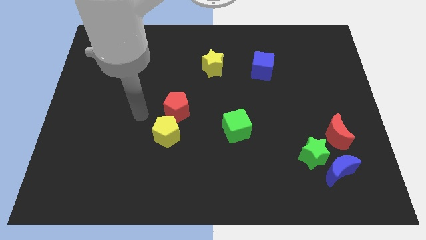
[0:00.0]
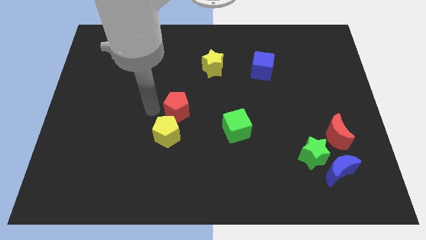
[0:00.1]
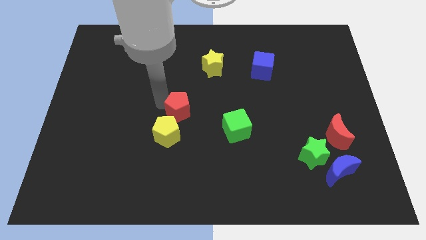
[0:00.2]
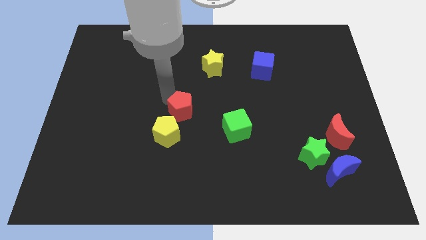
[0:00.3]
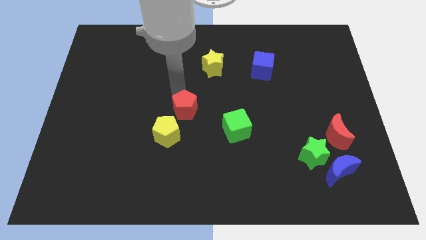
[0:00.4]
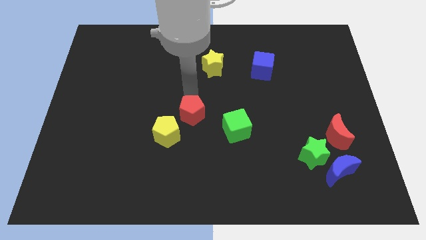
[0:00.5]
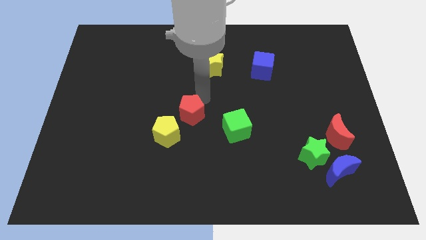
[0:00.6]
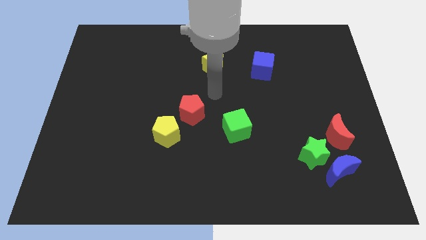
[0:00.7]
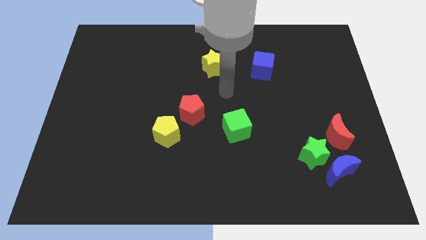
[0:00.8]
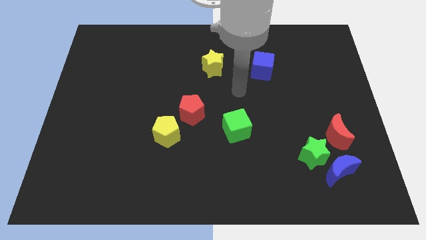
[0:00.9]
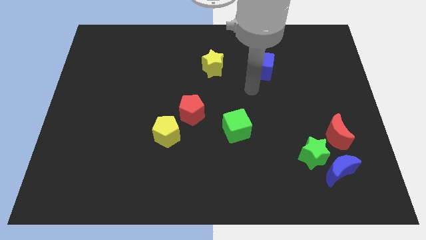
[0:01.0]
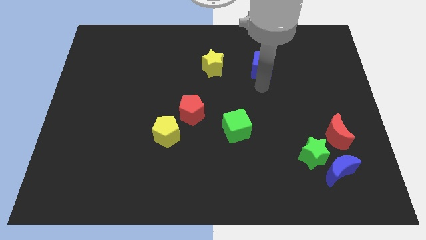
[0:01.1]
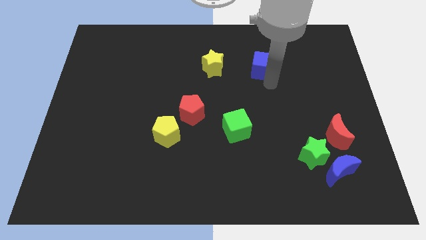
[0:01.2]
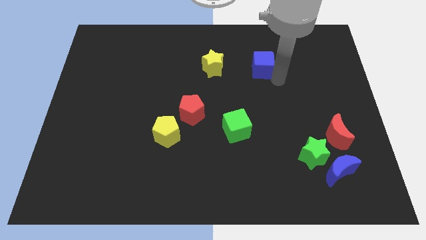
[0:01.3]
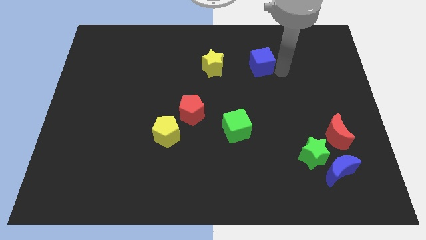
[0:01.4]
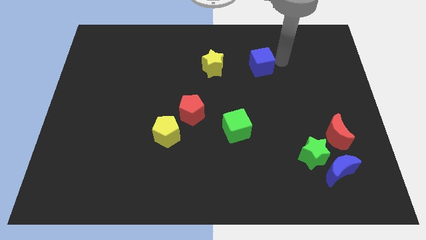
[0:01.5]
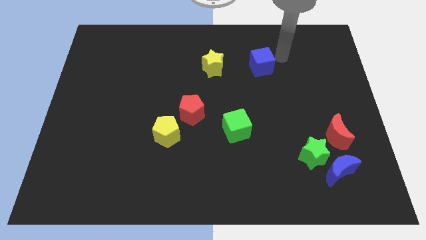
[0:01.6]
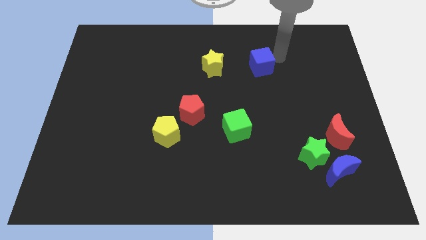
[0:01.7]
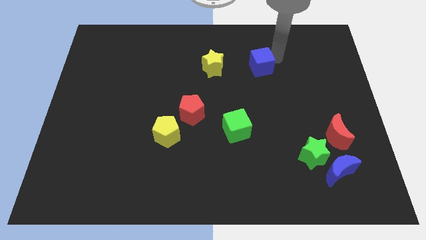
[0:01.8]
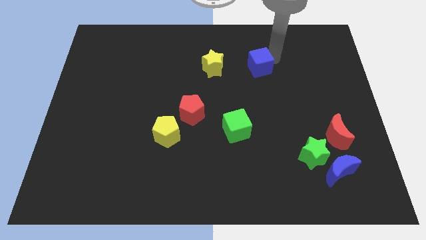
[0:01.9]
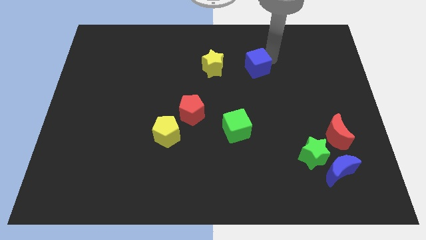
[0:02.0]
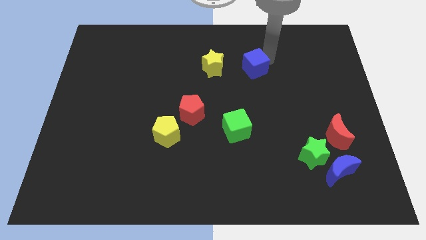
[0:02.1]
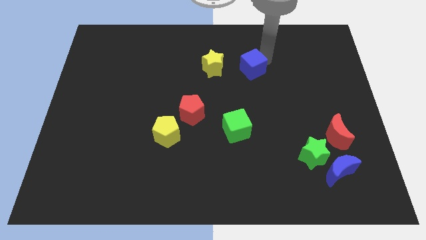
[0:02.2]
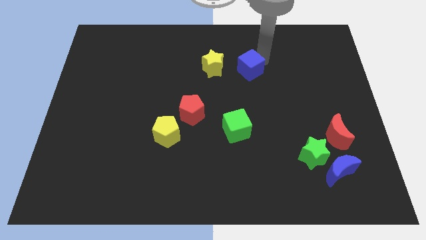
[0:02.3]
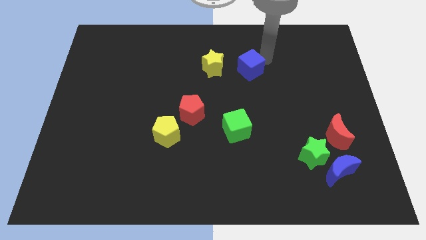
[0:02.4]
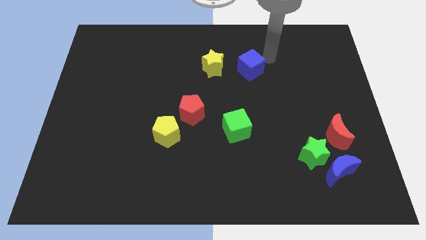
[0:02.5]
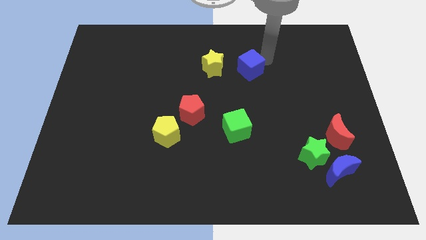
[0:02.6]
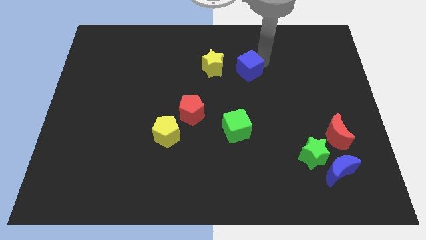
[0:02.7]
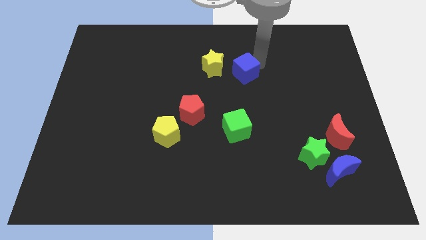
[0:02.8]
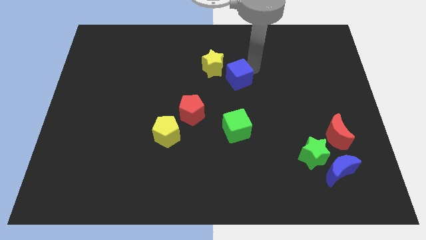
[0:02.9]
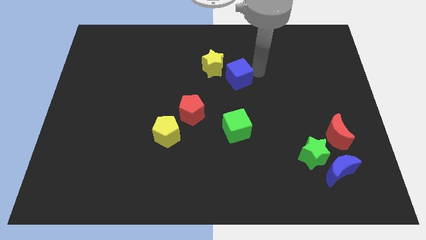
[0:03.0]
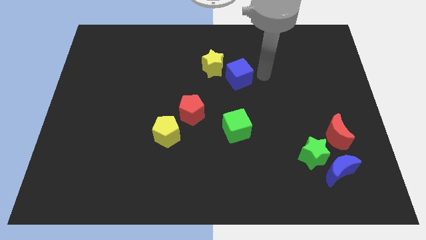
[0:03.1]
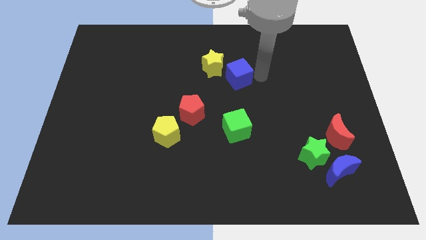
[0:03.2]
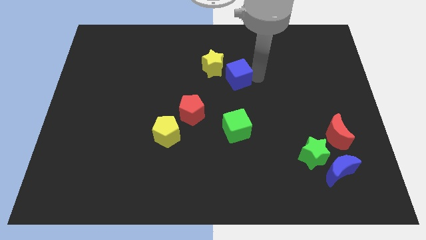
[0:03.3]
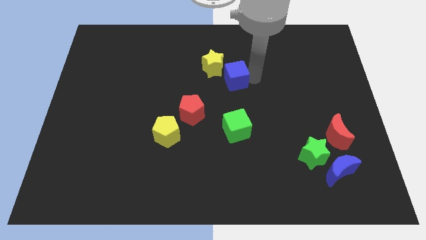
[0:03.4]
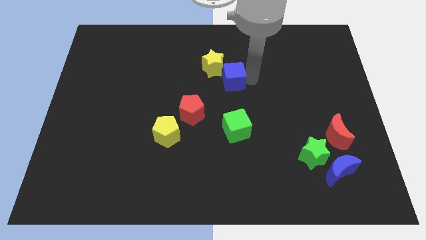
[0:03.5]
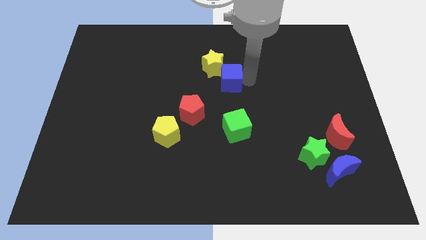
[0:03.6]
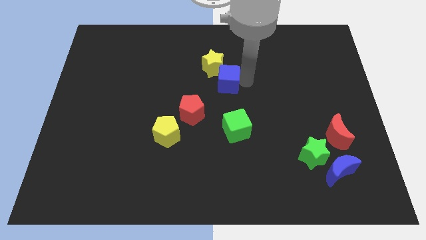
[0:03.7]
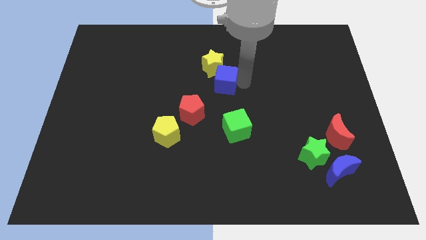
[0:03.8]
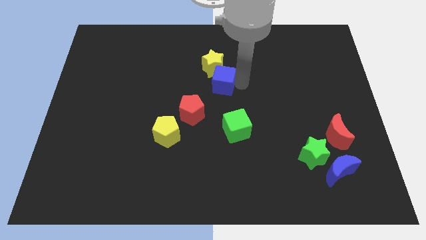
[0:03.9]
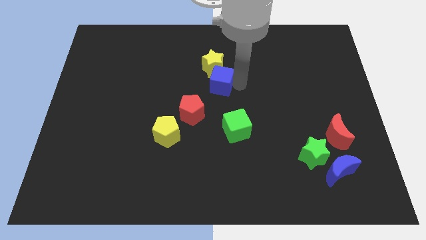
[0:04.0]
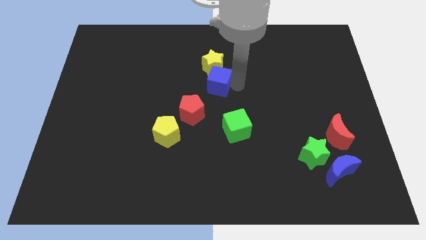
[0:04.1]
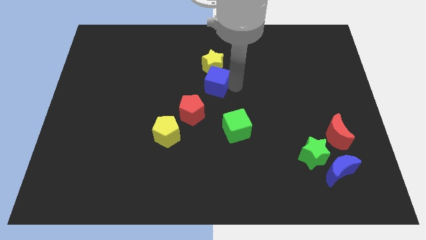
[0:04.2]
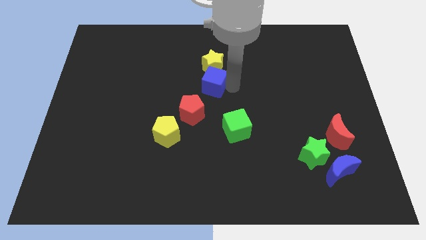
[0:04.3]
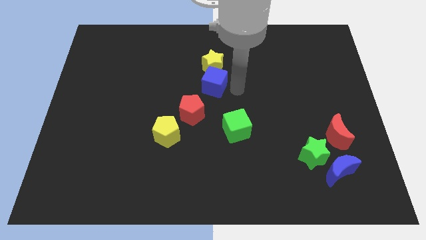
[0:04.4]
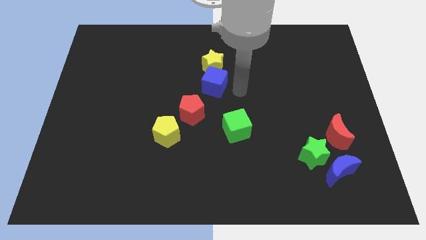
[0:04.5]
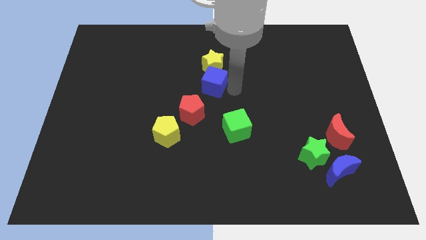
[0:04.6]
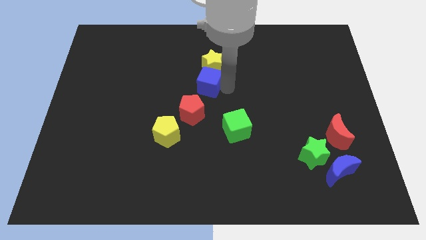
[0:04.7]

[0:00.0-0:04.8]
put the blue cube to the top side of the red pentagon

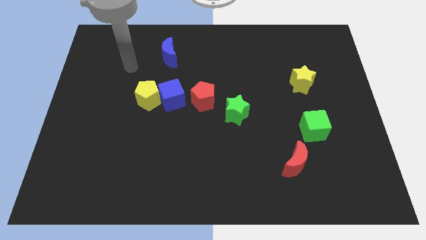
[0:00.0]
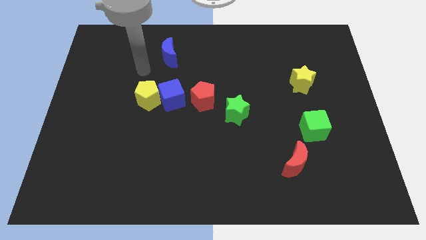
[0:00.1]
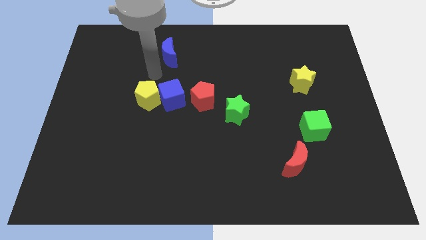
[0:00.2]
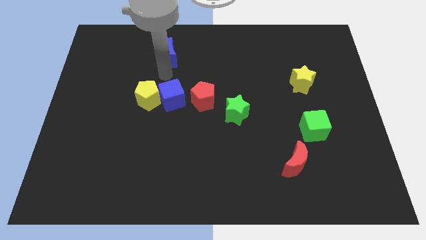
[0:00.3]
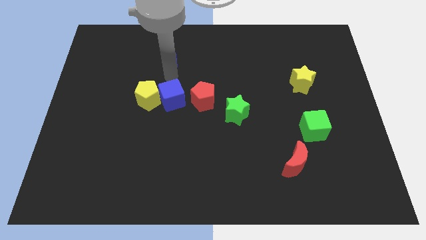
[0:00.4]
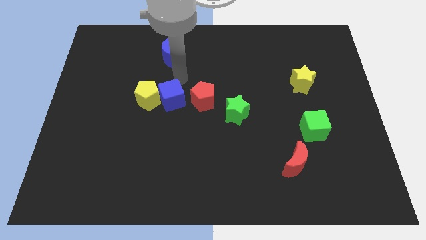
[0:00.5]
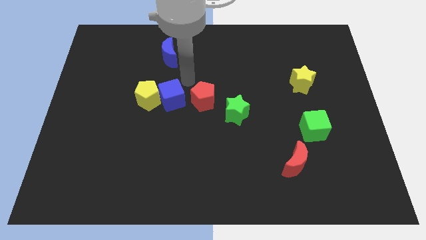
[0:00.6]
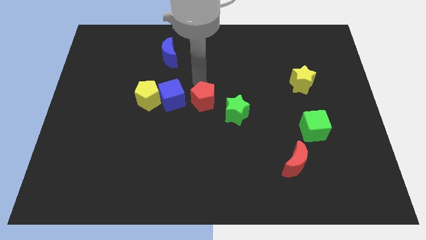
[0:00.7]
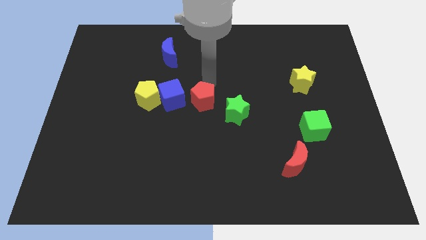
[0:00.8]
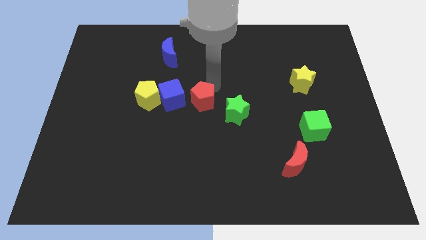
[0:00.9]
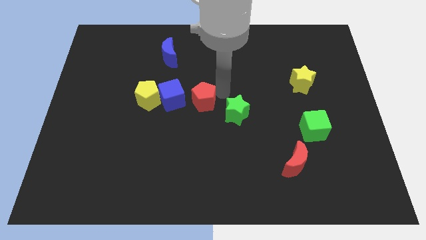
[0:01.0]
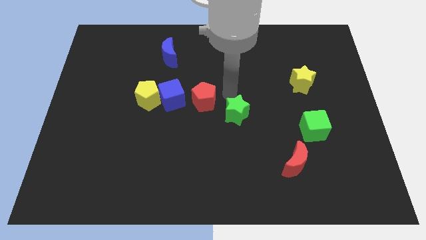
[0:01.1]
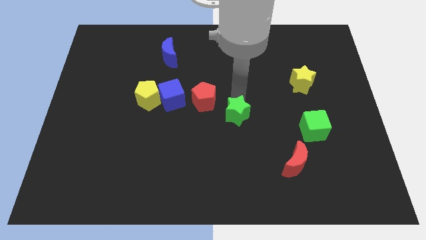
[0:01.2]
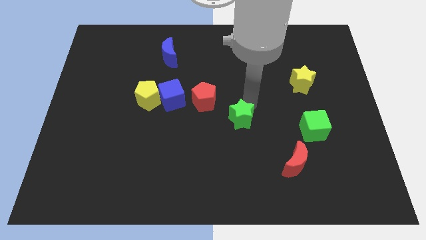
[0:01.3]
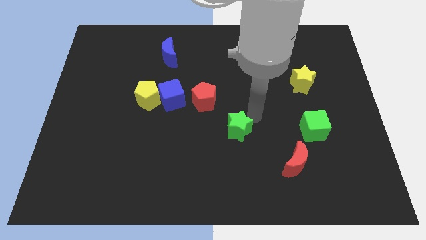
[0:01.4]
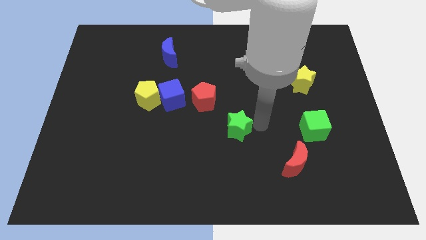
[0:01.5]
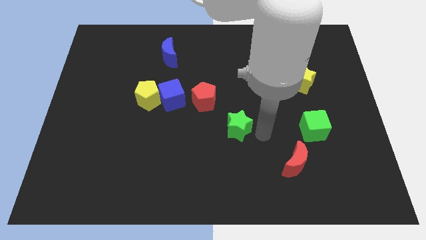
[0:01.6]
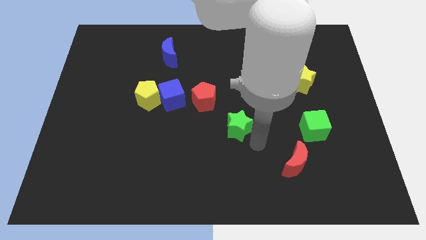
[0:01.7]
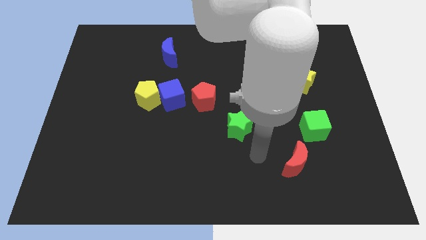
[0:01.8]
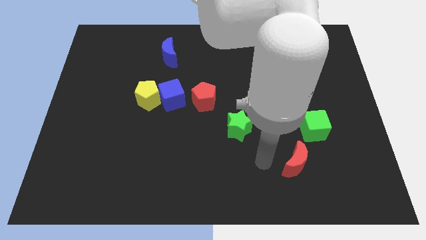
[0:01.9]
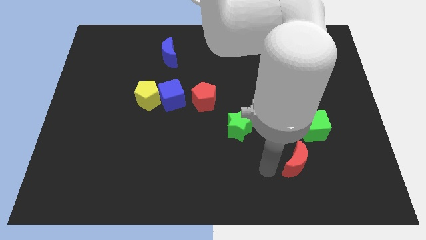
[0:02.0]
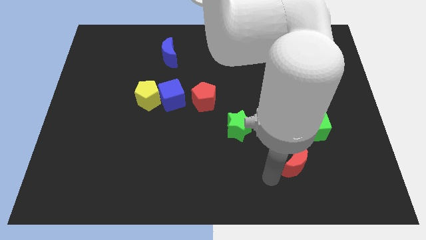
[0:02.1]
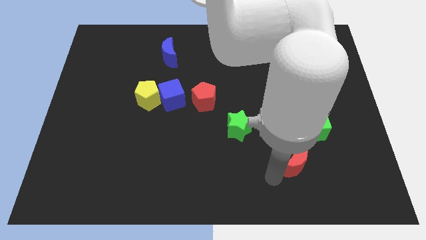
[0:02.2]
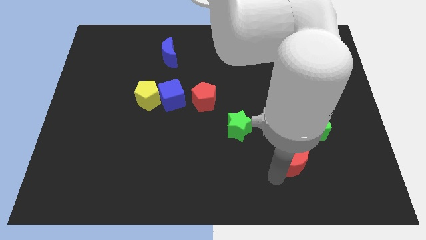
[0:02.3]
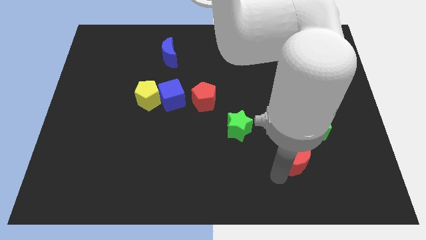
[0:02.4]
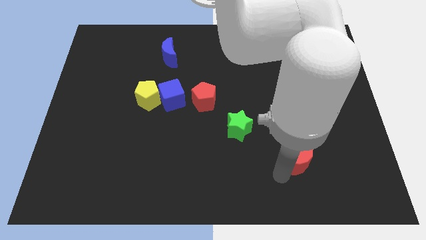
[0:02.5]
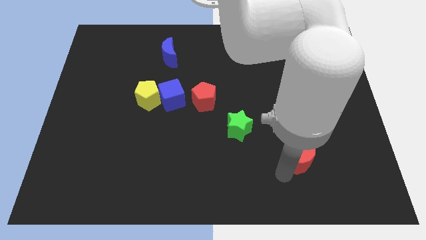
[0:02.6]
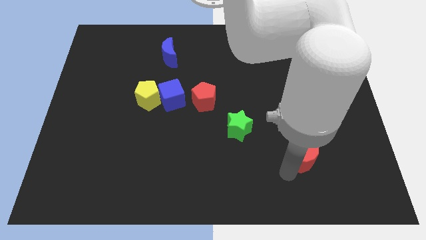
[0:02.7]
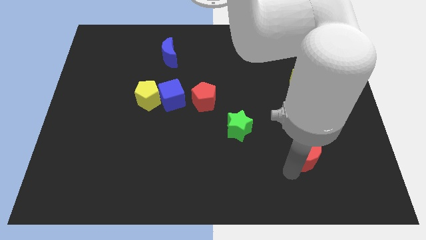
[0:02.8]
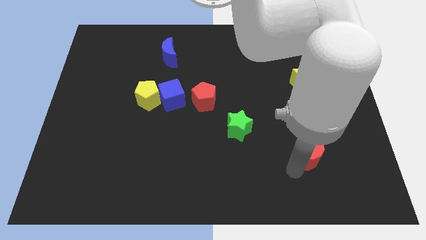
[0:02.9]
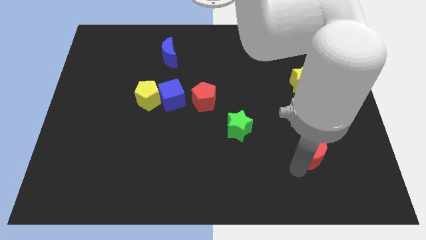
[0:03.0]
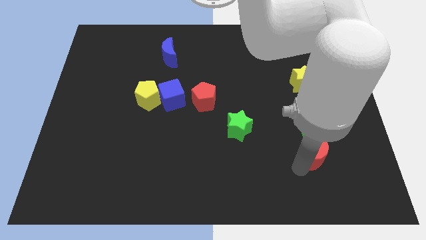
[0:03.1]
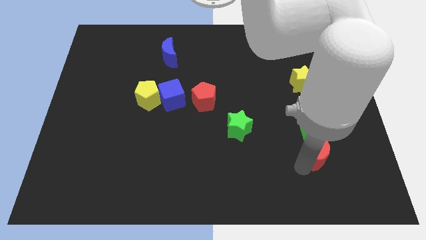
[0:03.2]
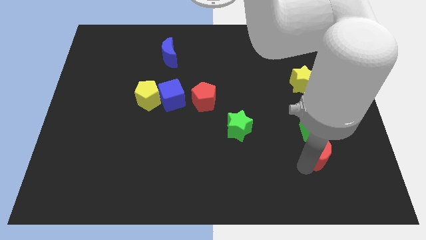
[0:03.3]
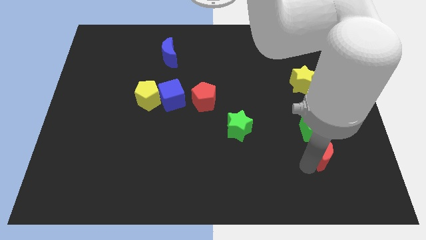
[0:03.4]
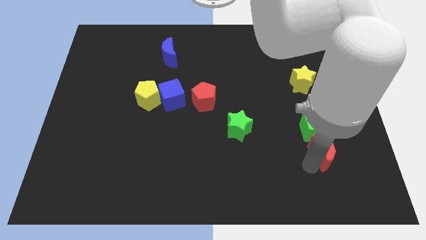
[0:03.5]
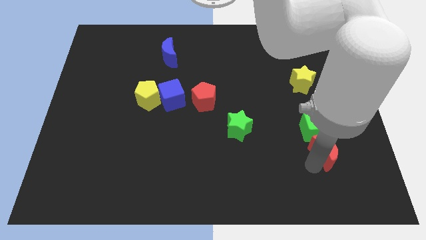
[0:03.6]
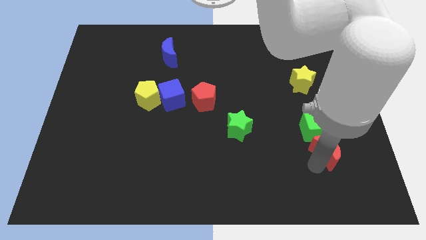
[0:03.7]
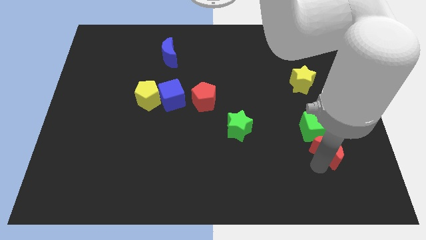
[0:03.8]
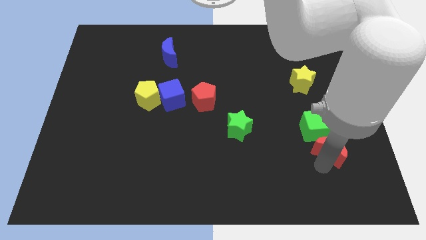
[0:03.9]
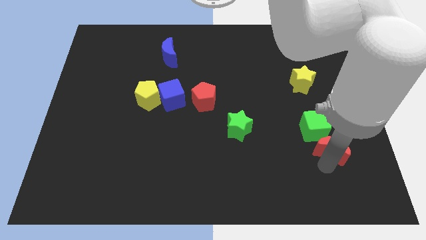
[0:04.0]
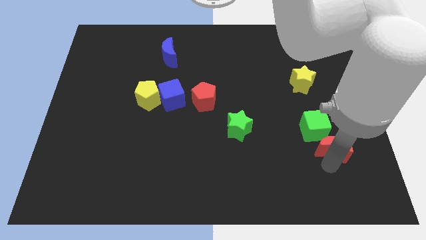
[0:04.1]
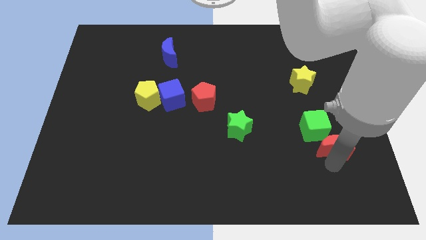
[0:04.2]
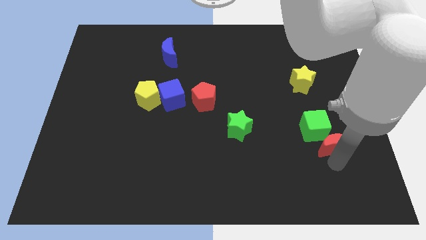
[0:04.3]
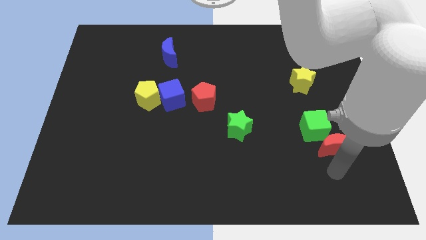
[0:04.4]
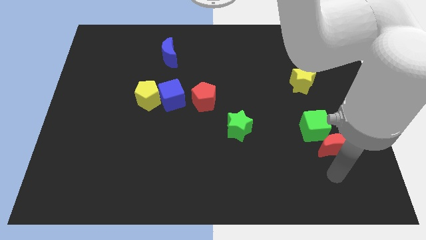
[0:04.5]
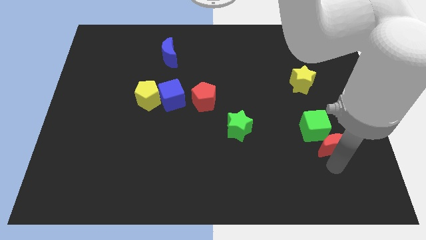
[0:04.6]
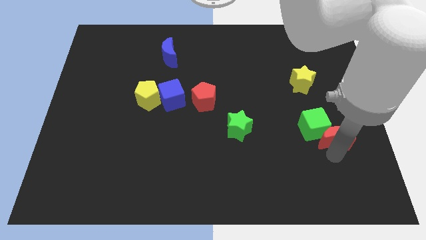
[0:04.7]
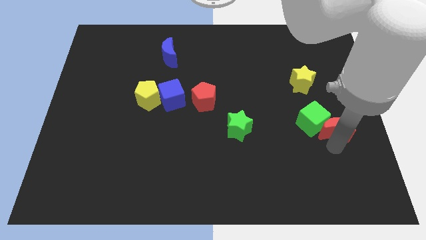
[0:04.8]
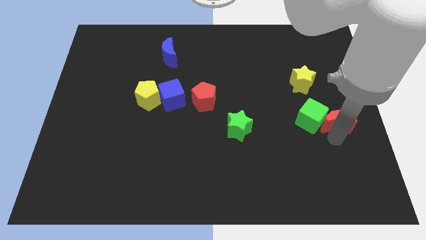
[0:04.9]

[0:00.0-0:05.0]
put the red moon to the top right of the green cube
